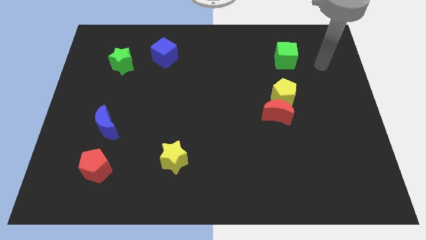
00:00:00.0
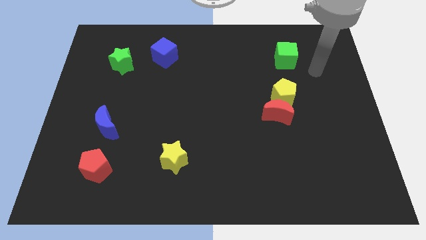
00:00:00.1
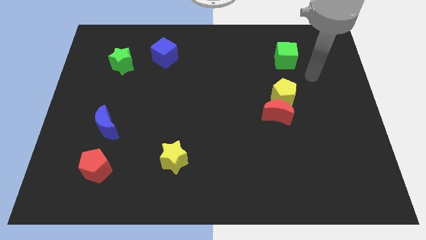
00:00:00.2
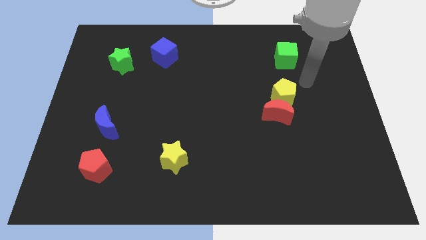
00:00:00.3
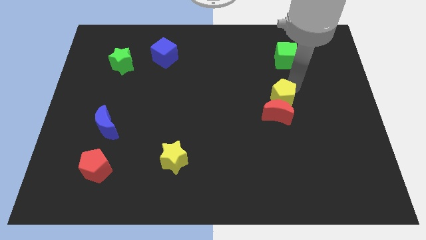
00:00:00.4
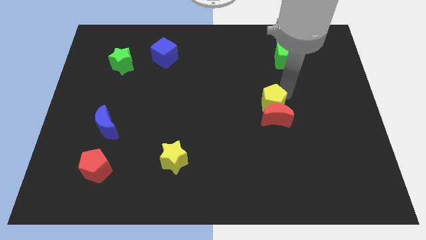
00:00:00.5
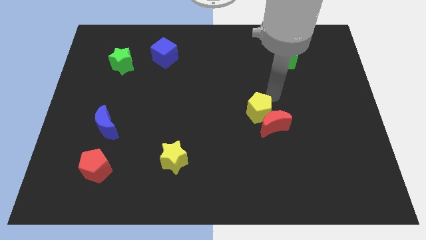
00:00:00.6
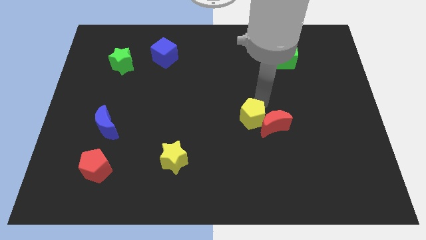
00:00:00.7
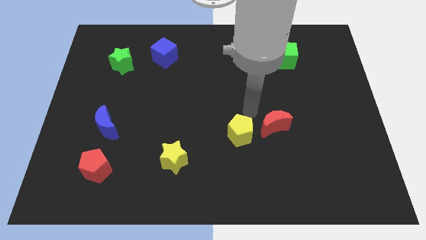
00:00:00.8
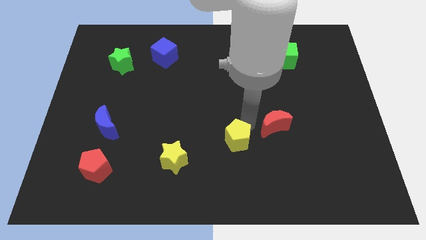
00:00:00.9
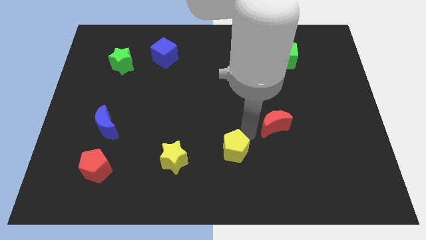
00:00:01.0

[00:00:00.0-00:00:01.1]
pull the red moon apart from the yellow pentagon

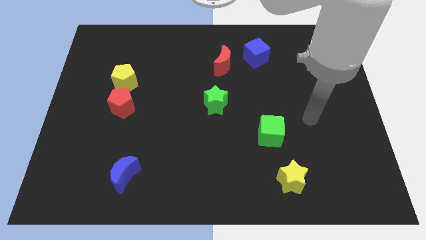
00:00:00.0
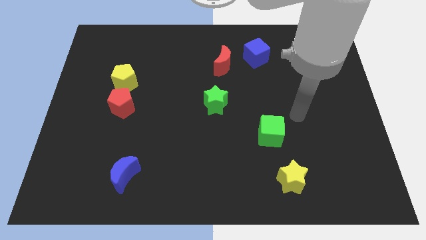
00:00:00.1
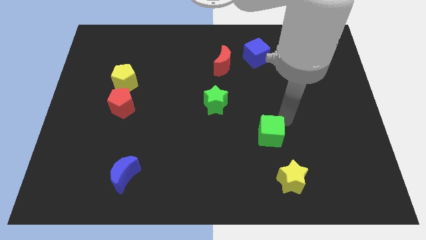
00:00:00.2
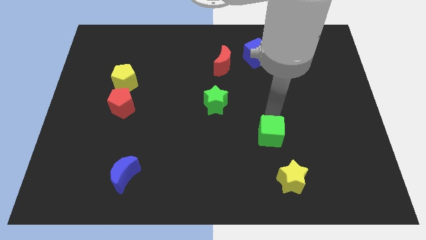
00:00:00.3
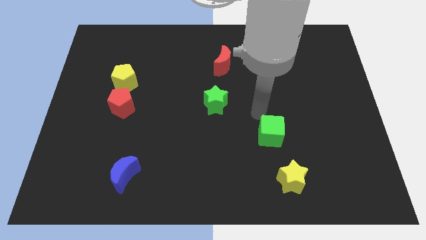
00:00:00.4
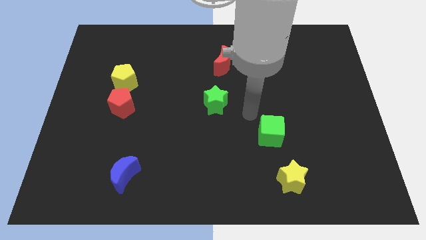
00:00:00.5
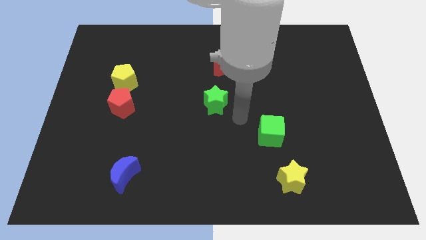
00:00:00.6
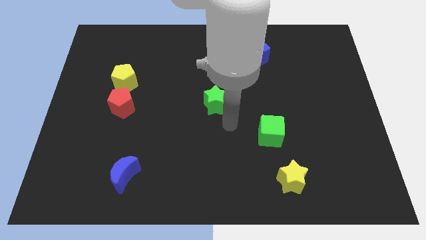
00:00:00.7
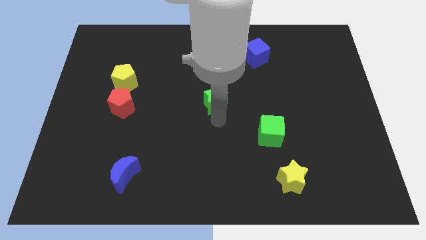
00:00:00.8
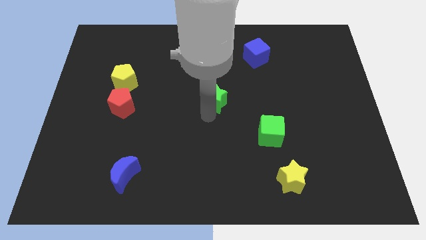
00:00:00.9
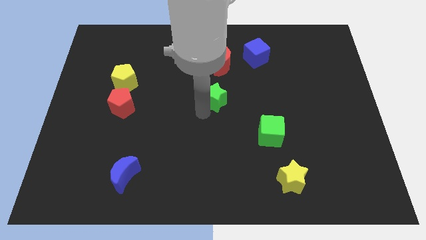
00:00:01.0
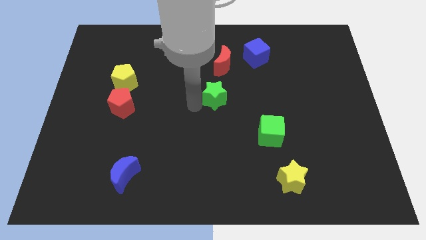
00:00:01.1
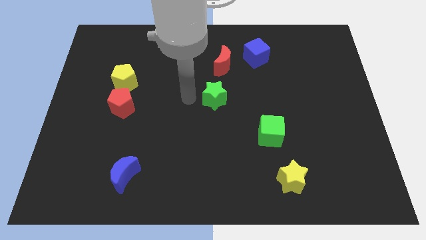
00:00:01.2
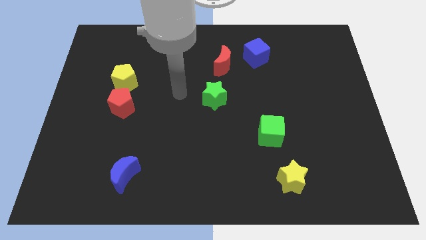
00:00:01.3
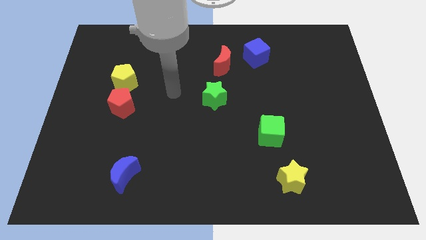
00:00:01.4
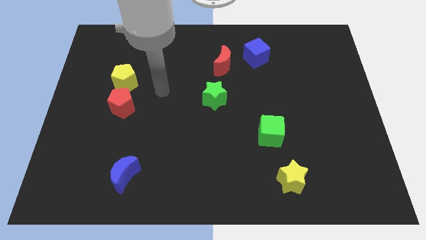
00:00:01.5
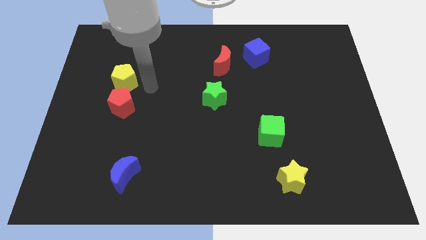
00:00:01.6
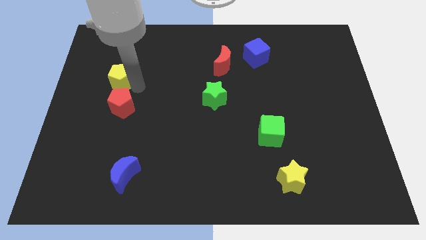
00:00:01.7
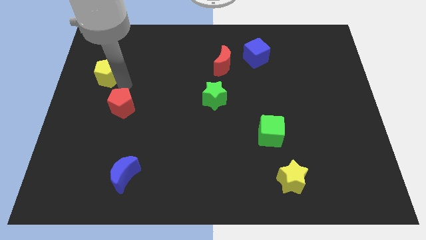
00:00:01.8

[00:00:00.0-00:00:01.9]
pull the red pentagon apart from the yellow pentagon

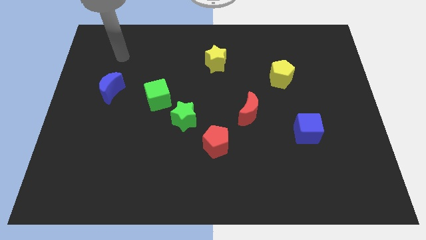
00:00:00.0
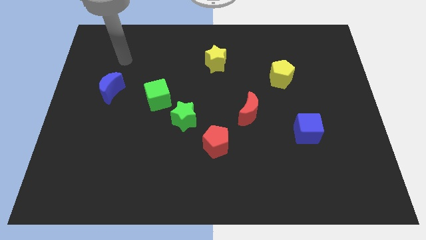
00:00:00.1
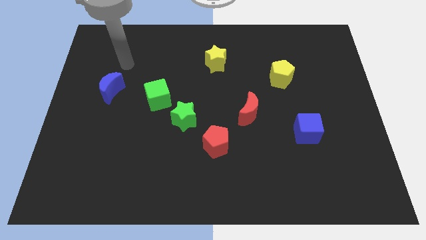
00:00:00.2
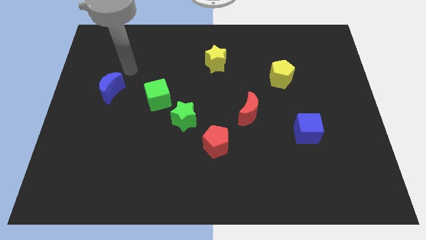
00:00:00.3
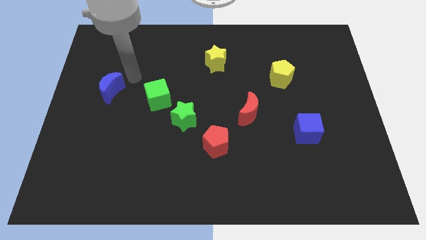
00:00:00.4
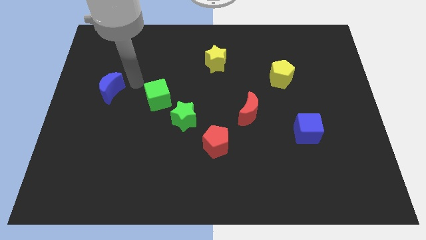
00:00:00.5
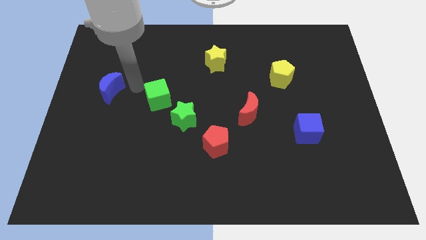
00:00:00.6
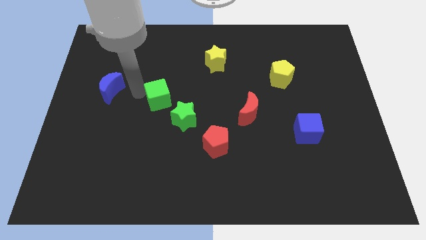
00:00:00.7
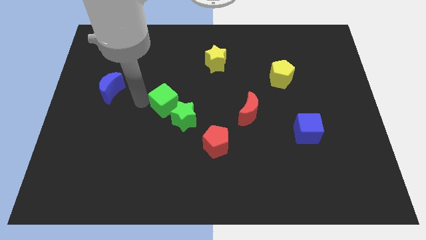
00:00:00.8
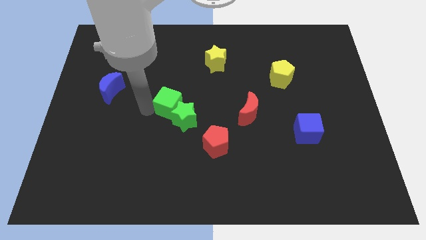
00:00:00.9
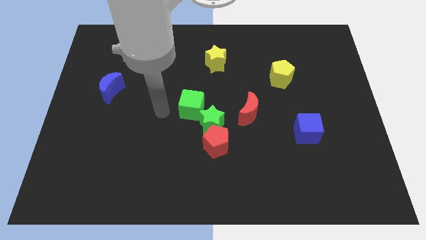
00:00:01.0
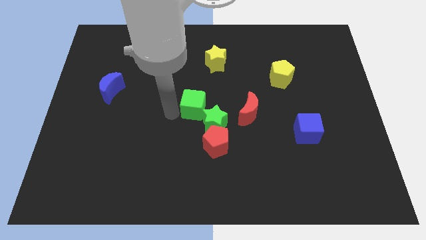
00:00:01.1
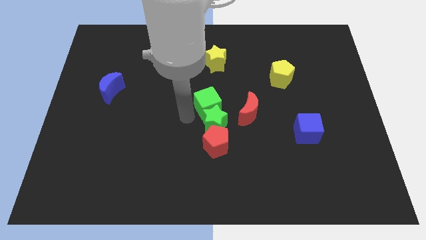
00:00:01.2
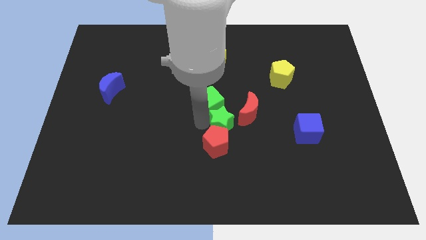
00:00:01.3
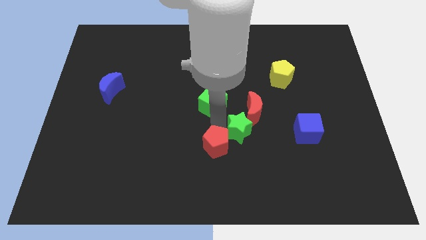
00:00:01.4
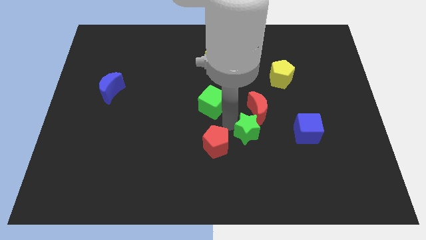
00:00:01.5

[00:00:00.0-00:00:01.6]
move the green cube away from the green star

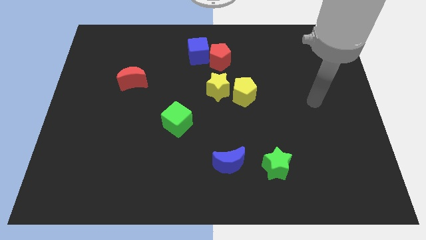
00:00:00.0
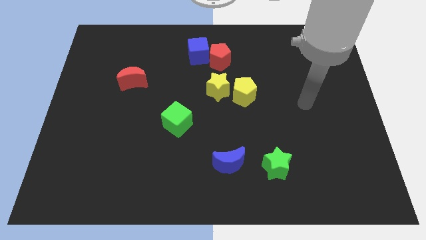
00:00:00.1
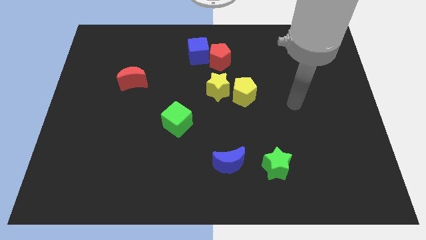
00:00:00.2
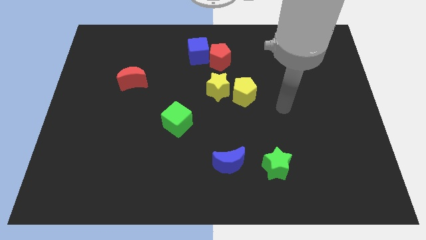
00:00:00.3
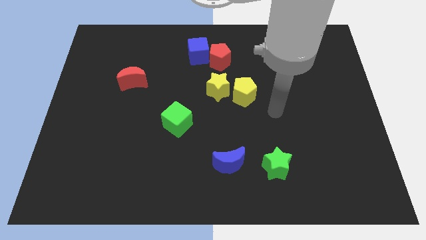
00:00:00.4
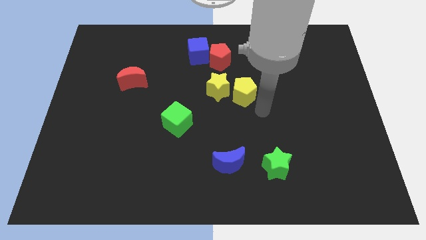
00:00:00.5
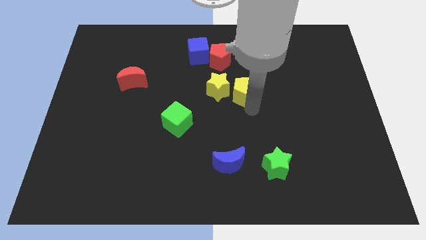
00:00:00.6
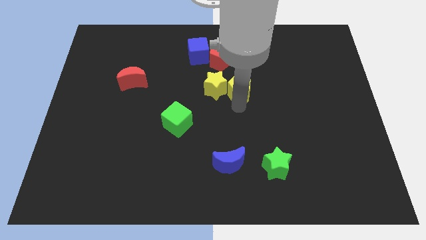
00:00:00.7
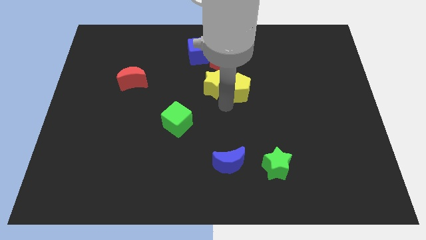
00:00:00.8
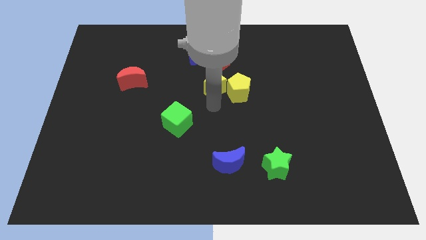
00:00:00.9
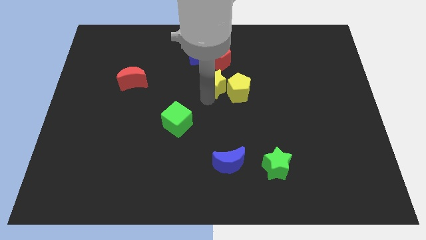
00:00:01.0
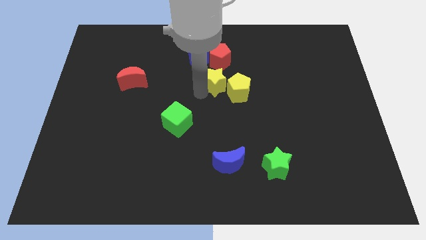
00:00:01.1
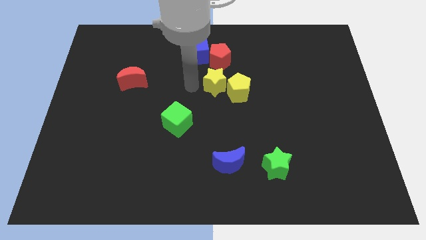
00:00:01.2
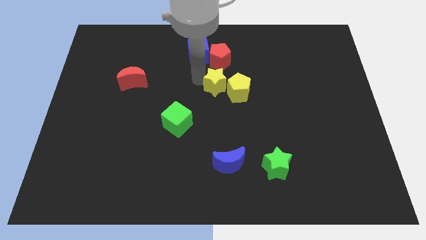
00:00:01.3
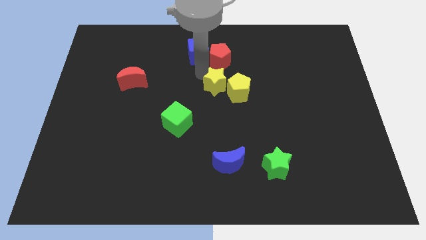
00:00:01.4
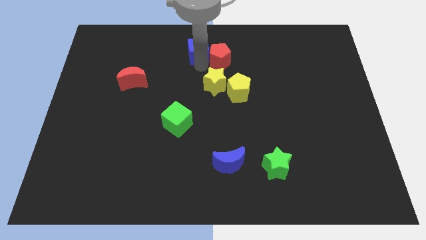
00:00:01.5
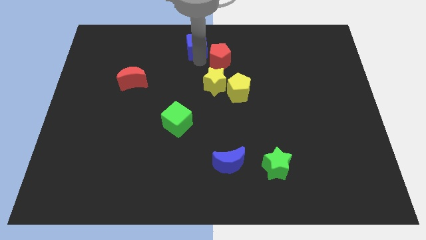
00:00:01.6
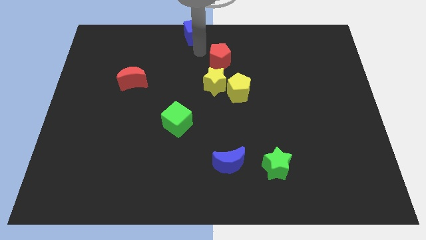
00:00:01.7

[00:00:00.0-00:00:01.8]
move the red pentagon away from the blue cube

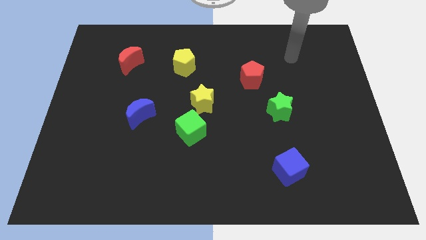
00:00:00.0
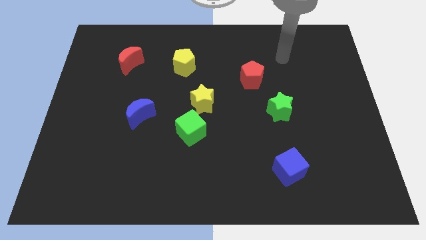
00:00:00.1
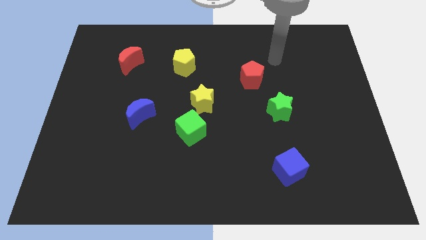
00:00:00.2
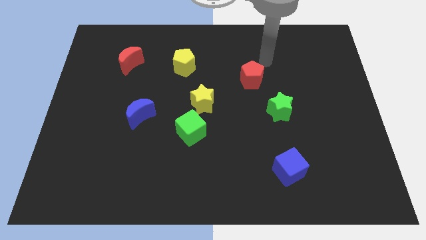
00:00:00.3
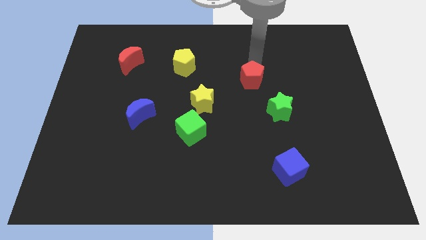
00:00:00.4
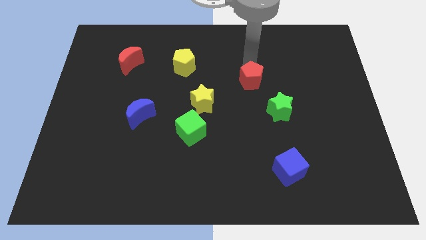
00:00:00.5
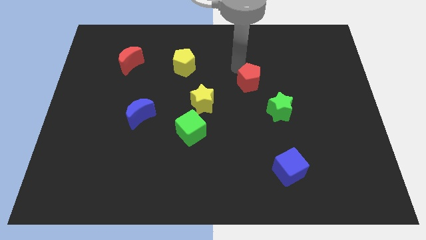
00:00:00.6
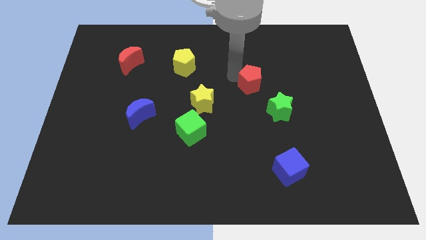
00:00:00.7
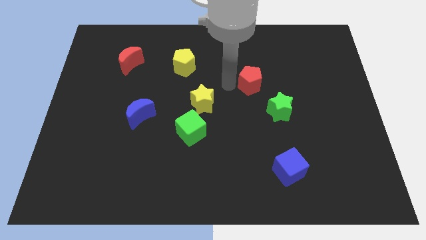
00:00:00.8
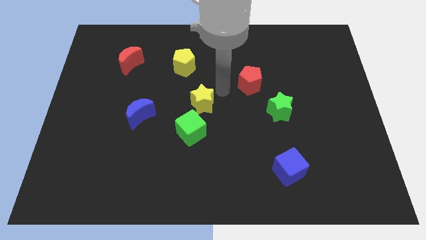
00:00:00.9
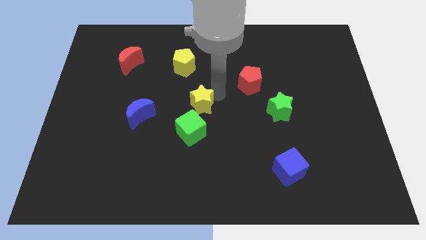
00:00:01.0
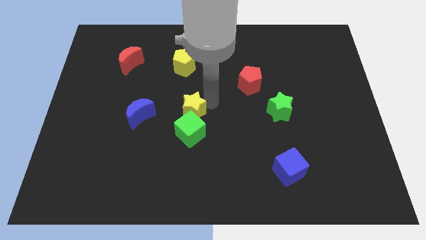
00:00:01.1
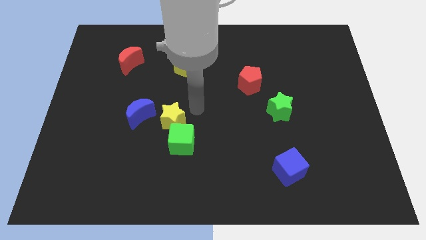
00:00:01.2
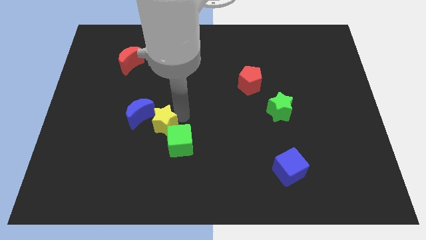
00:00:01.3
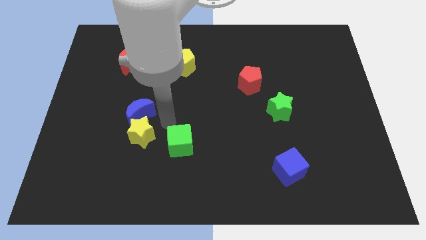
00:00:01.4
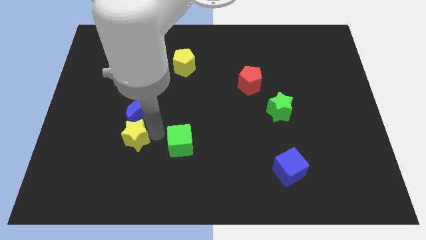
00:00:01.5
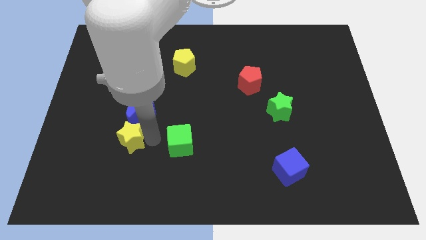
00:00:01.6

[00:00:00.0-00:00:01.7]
pull the green cube apart from the yellow star

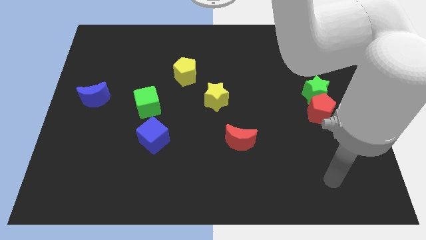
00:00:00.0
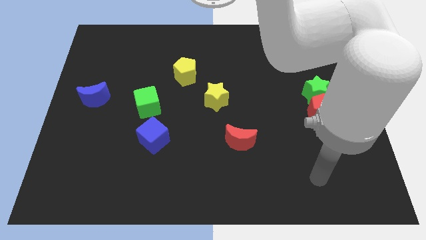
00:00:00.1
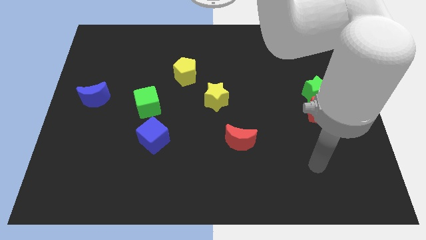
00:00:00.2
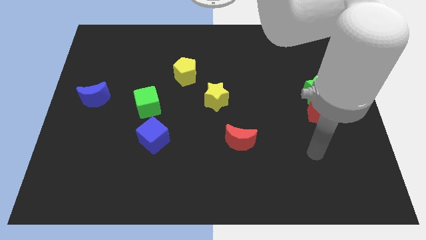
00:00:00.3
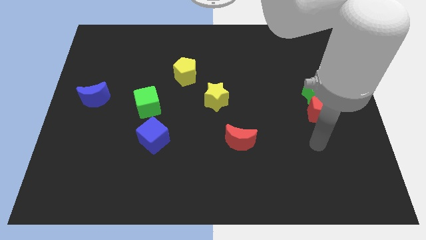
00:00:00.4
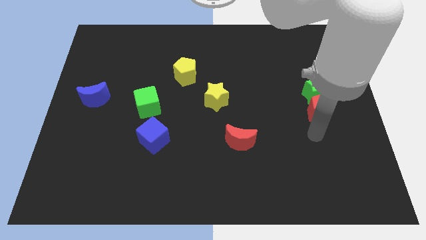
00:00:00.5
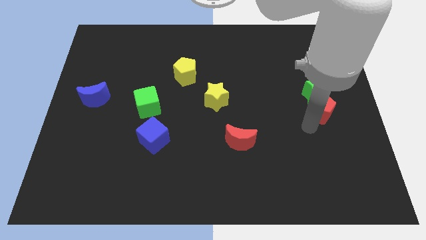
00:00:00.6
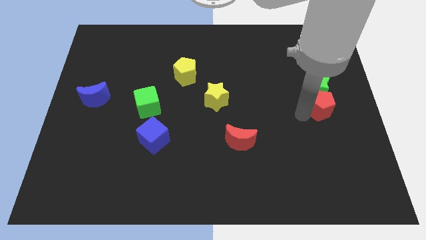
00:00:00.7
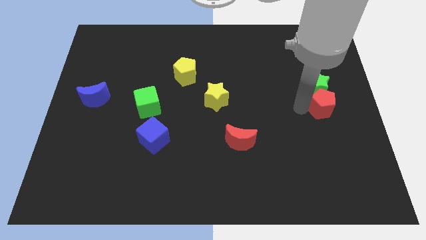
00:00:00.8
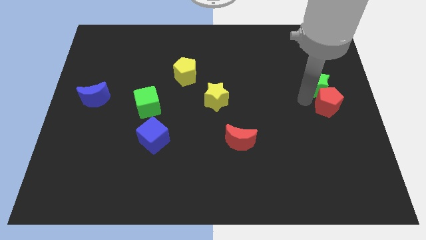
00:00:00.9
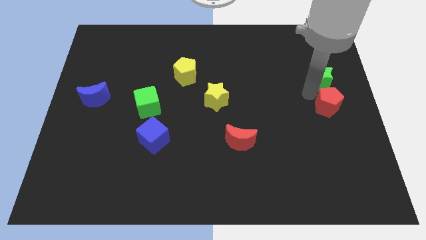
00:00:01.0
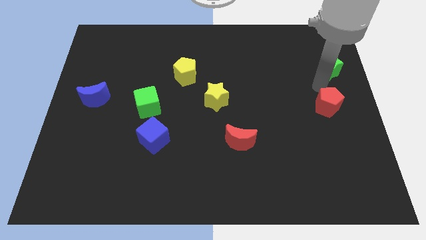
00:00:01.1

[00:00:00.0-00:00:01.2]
move the red pentagon away from the green star
